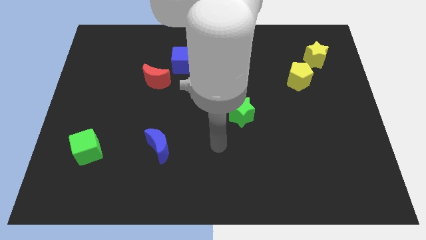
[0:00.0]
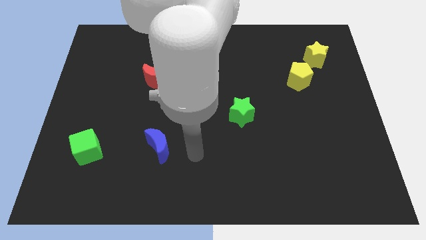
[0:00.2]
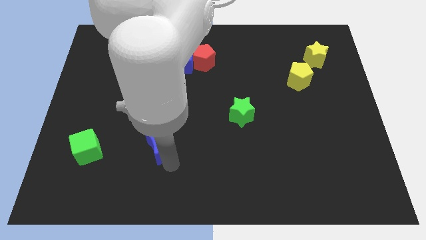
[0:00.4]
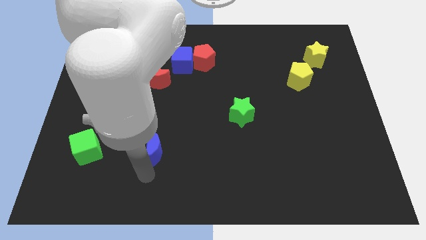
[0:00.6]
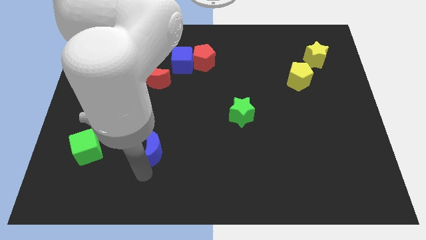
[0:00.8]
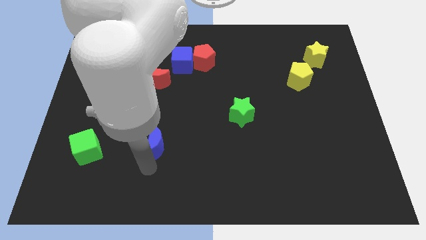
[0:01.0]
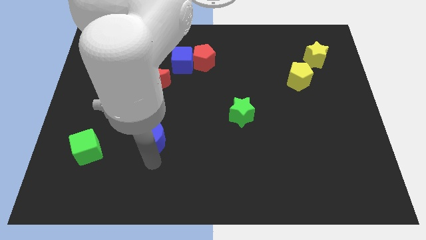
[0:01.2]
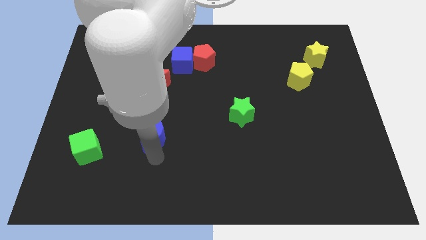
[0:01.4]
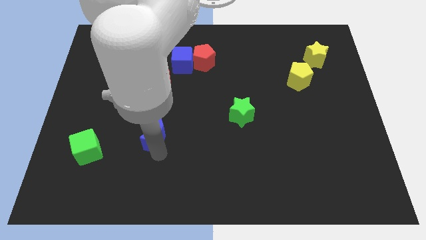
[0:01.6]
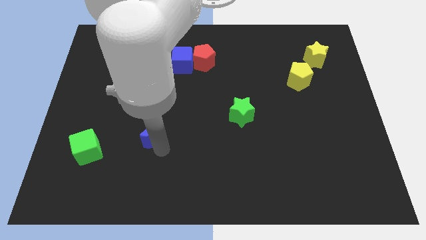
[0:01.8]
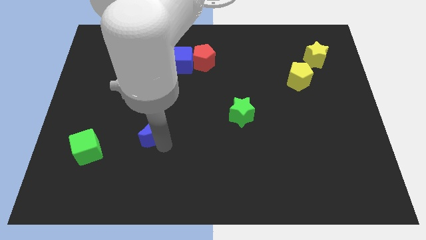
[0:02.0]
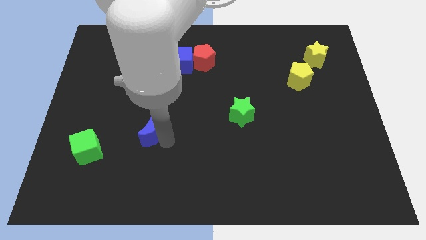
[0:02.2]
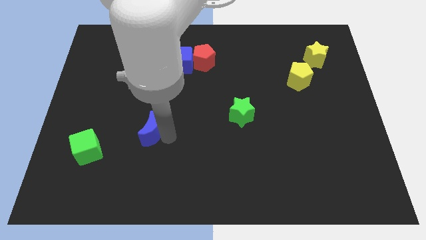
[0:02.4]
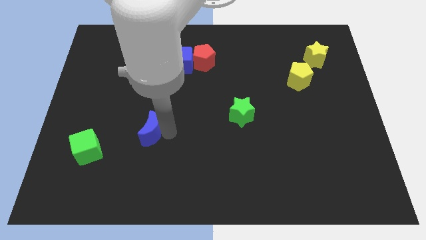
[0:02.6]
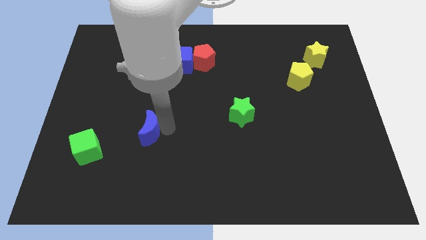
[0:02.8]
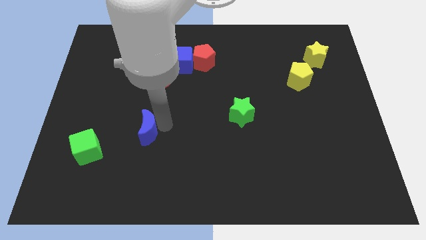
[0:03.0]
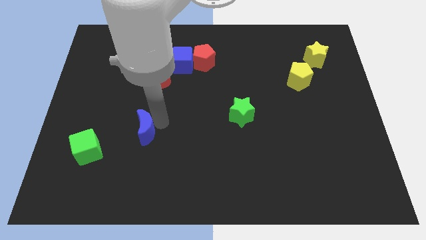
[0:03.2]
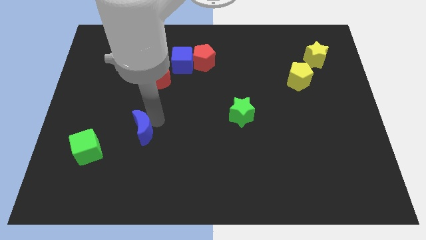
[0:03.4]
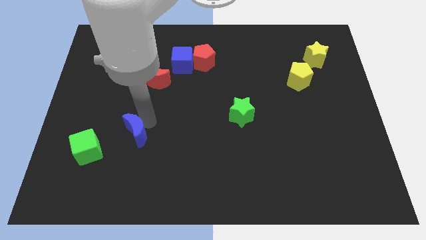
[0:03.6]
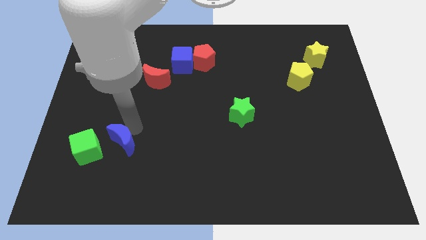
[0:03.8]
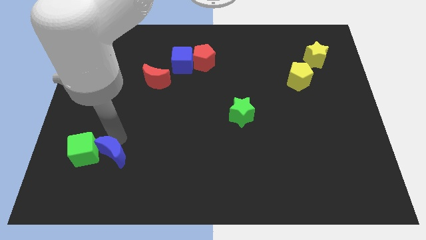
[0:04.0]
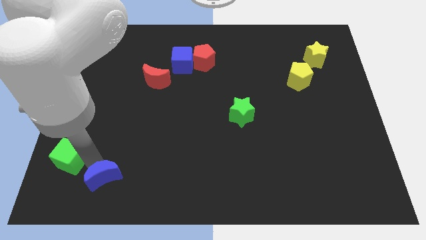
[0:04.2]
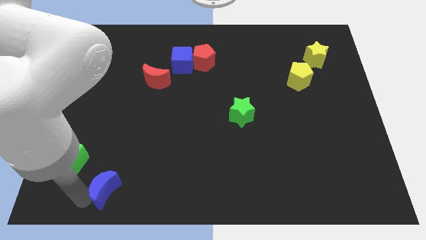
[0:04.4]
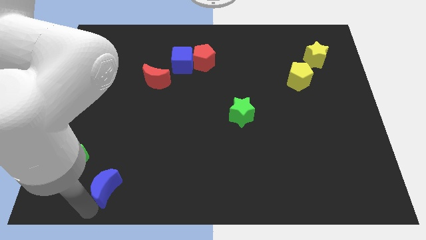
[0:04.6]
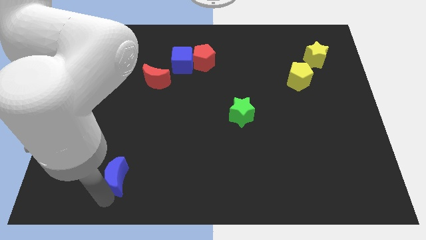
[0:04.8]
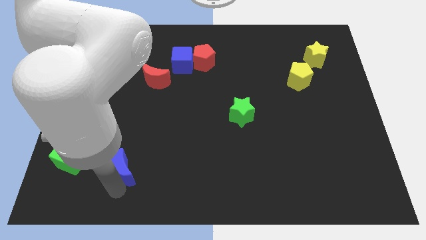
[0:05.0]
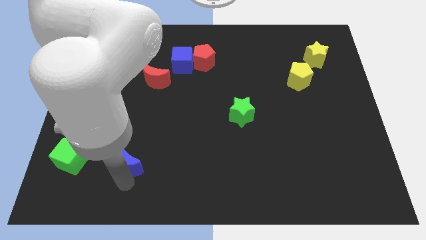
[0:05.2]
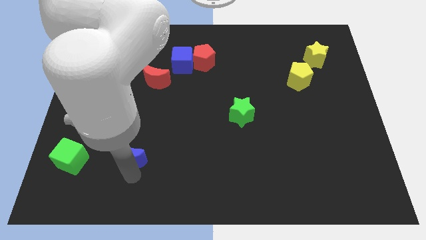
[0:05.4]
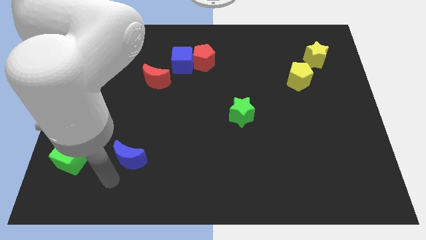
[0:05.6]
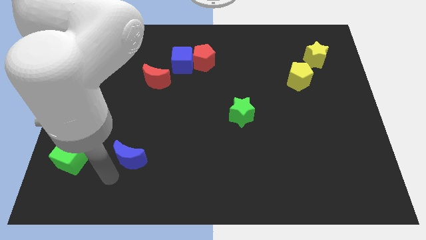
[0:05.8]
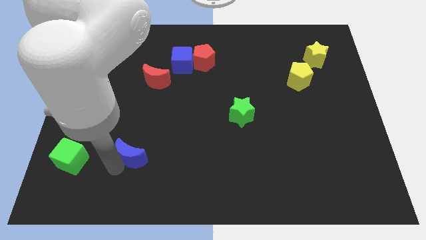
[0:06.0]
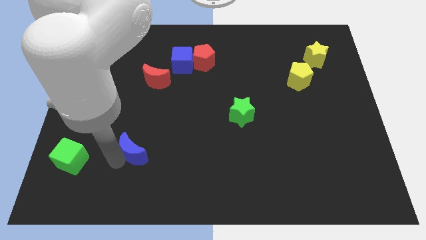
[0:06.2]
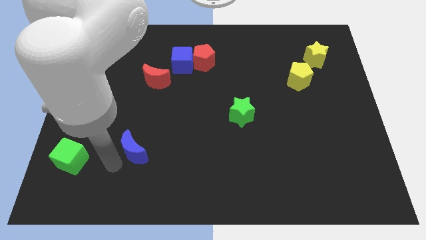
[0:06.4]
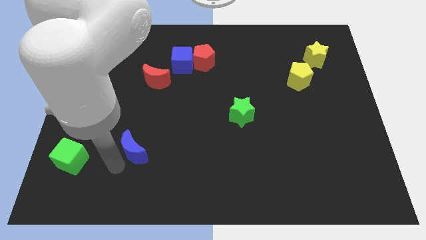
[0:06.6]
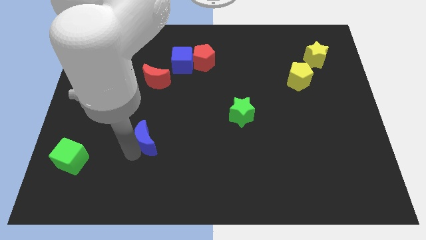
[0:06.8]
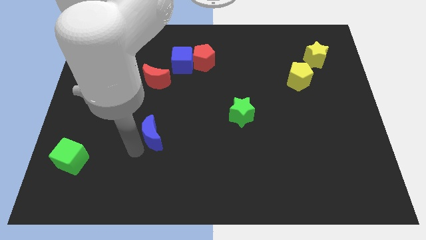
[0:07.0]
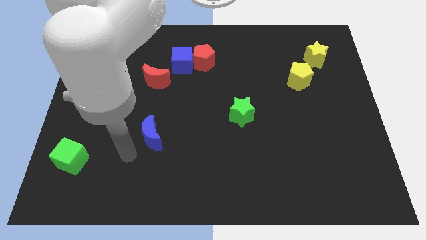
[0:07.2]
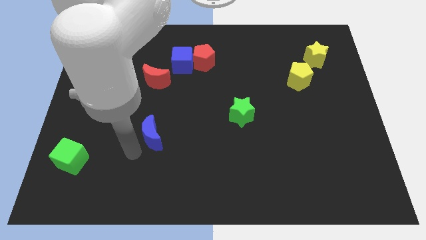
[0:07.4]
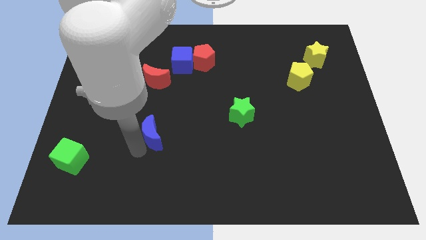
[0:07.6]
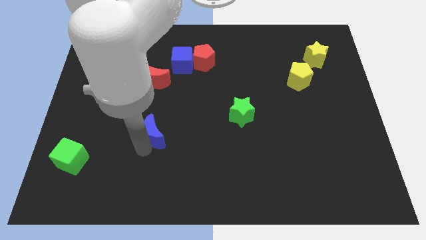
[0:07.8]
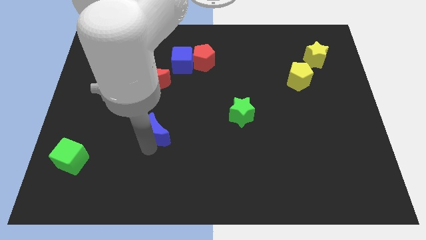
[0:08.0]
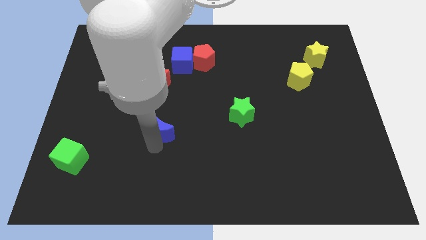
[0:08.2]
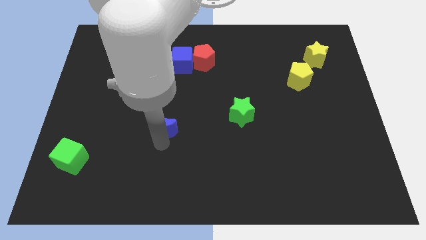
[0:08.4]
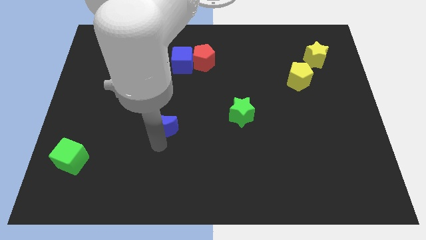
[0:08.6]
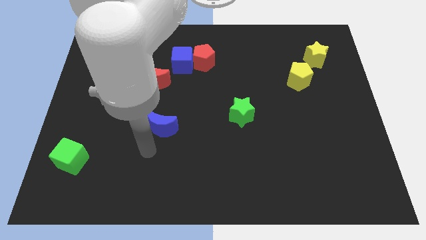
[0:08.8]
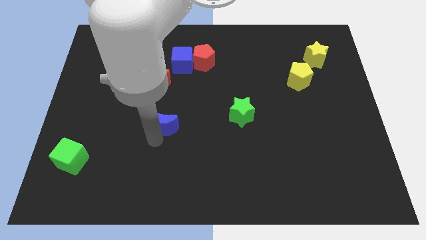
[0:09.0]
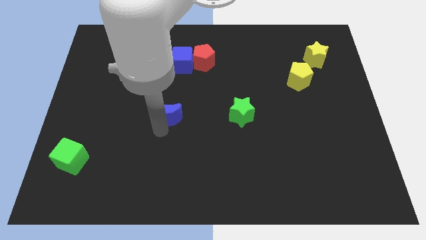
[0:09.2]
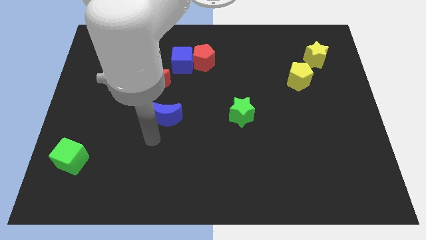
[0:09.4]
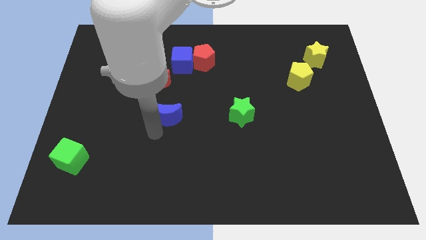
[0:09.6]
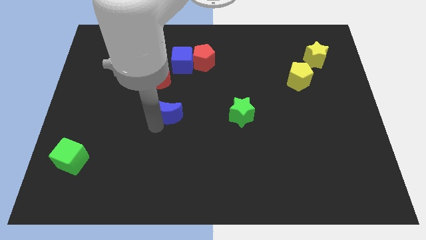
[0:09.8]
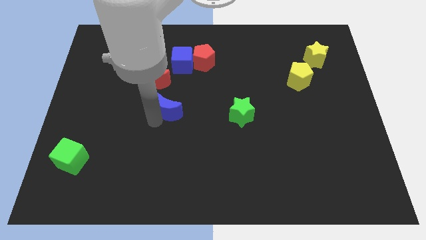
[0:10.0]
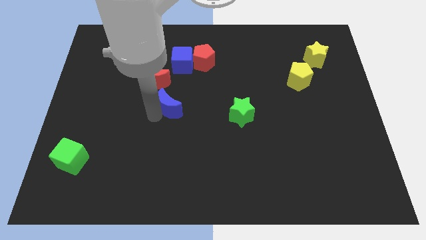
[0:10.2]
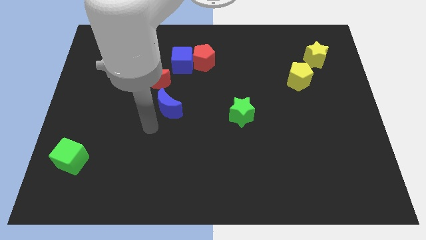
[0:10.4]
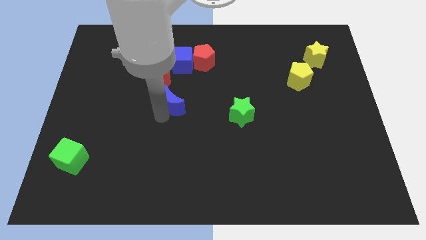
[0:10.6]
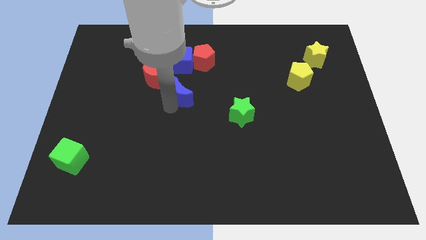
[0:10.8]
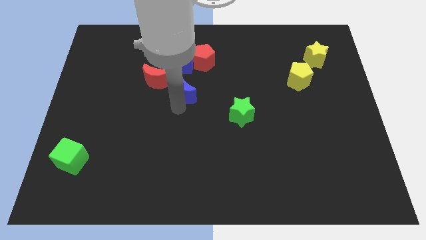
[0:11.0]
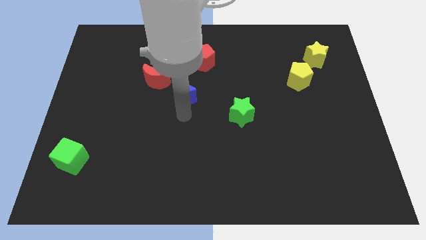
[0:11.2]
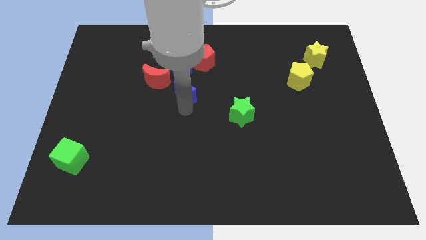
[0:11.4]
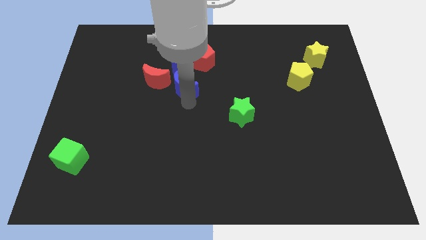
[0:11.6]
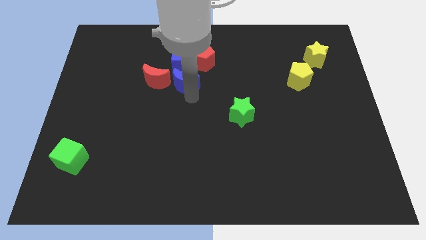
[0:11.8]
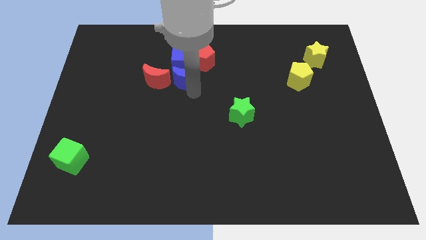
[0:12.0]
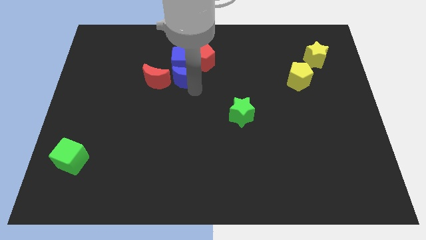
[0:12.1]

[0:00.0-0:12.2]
push the blue moon towards the blue cube

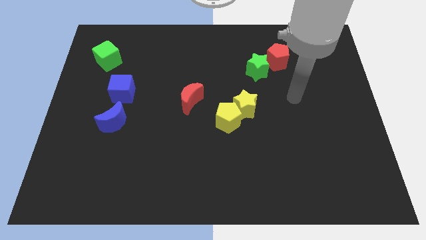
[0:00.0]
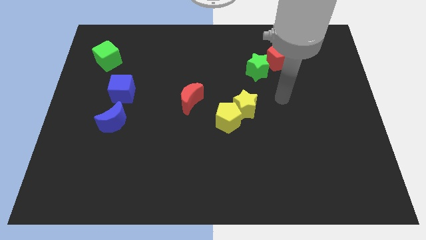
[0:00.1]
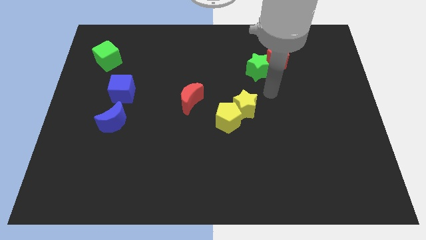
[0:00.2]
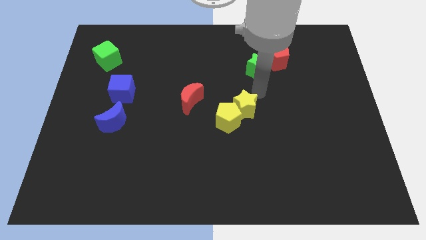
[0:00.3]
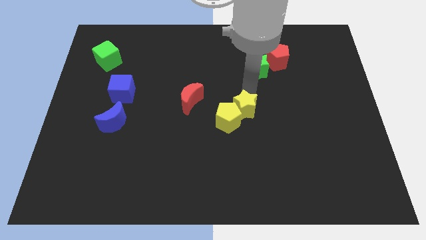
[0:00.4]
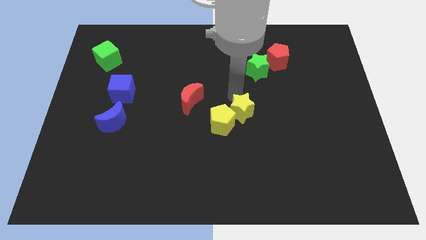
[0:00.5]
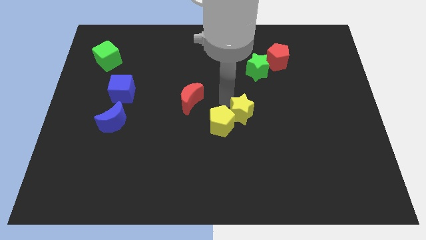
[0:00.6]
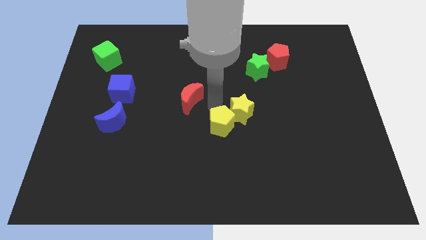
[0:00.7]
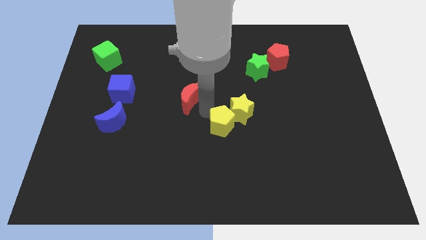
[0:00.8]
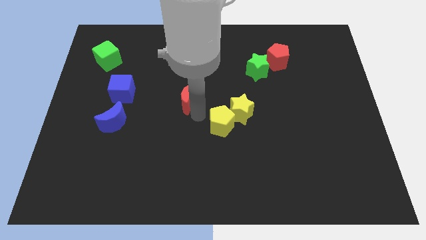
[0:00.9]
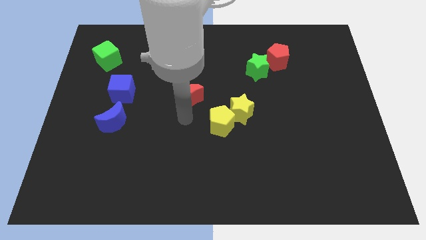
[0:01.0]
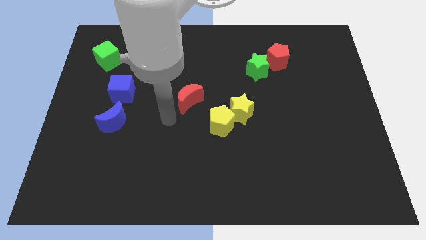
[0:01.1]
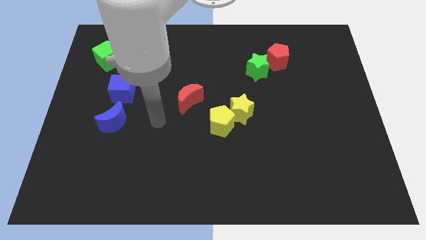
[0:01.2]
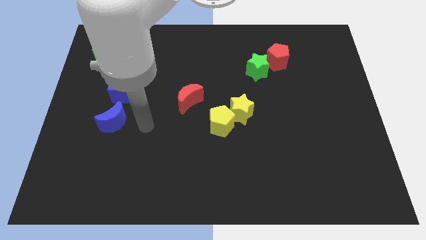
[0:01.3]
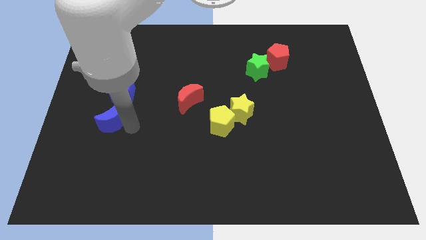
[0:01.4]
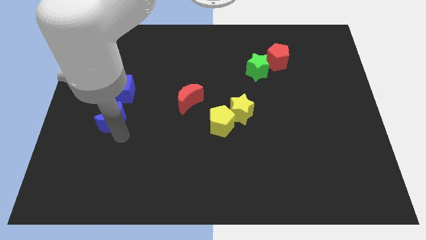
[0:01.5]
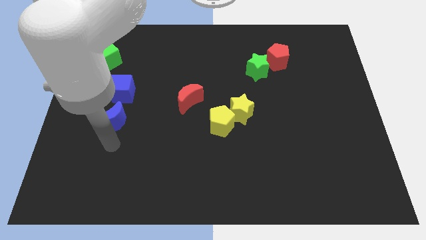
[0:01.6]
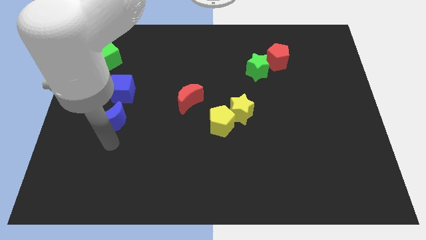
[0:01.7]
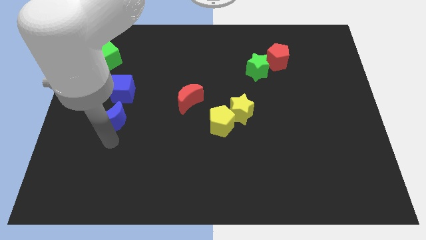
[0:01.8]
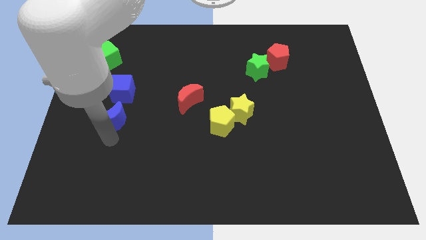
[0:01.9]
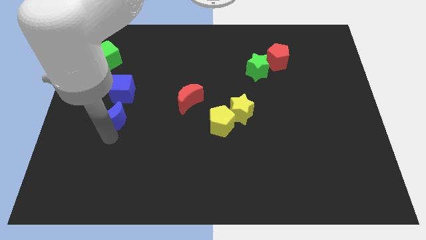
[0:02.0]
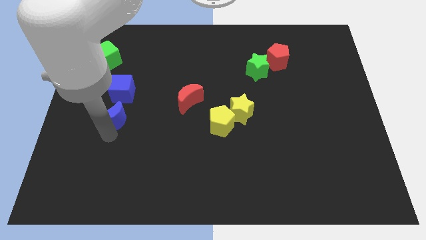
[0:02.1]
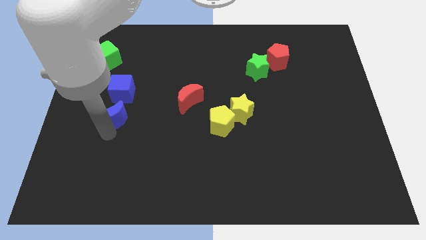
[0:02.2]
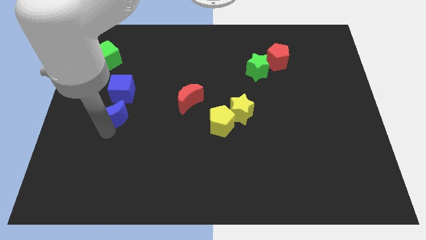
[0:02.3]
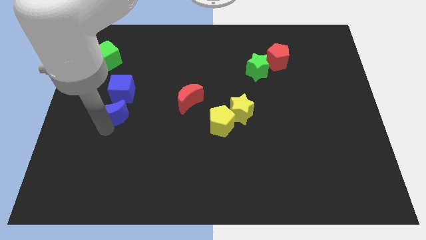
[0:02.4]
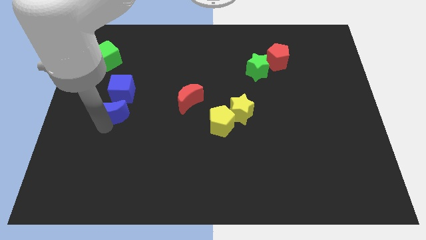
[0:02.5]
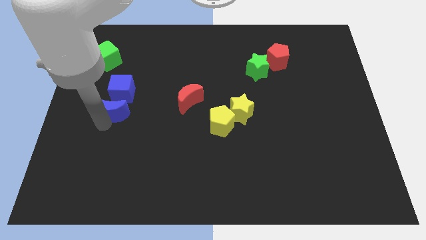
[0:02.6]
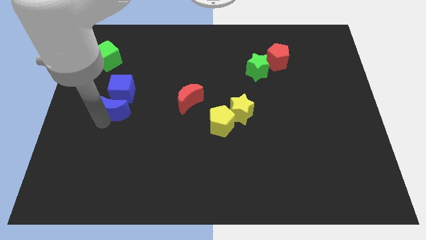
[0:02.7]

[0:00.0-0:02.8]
slide the blue moon towards the blue cube
